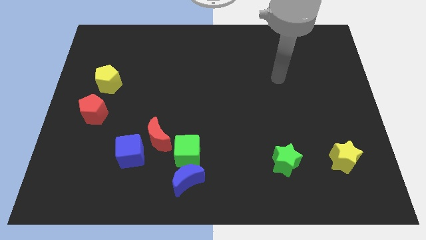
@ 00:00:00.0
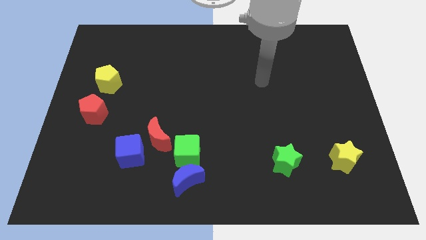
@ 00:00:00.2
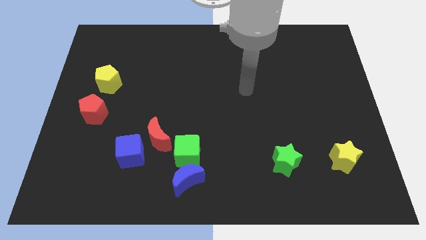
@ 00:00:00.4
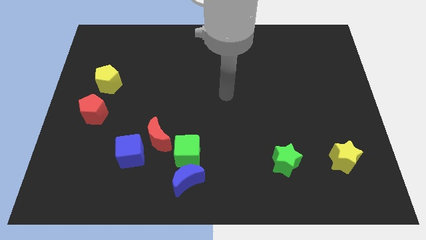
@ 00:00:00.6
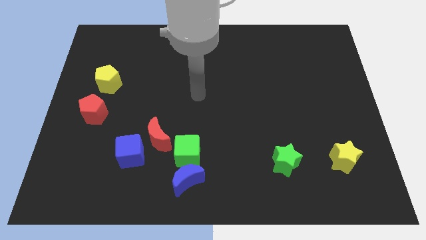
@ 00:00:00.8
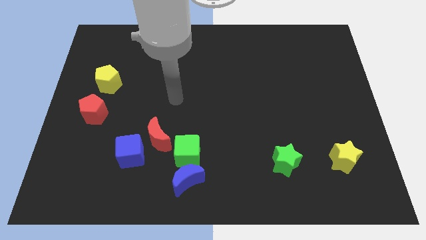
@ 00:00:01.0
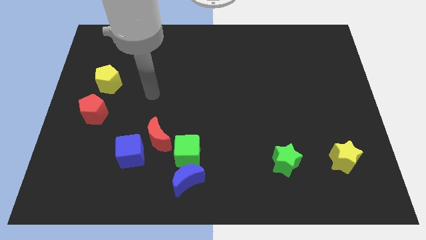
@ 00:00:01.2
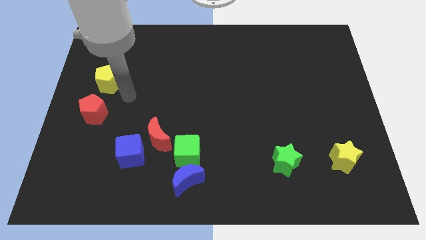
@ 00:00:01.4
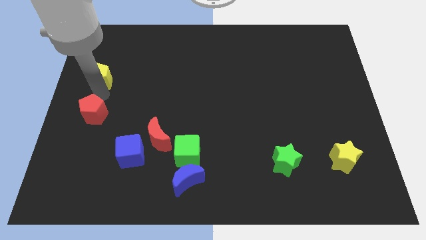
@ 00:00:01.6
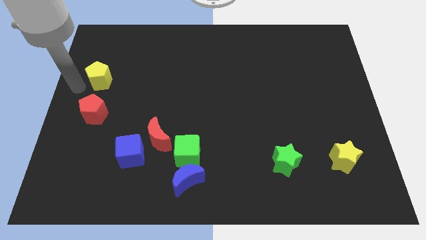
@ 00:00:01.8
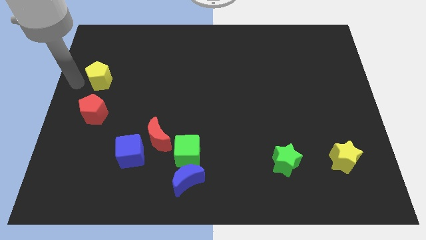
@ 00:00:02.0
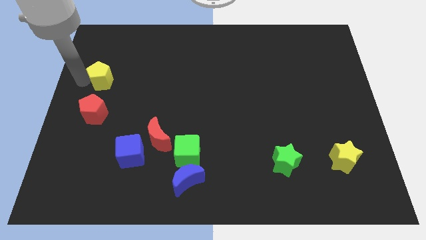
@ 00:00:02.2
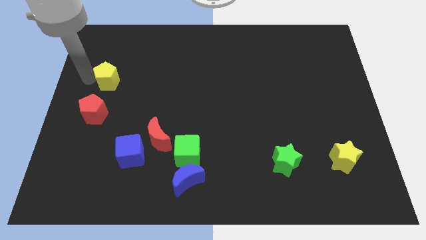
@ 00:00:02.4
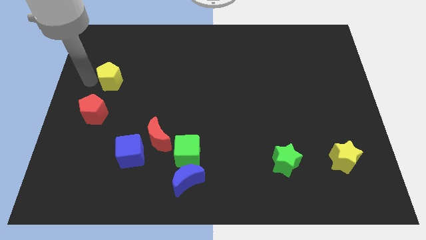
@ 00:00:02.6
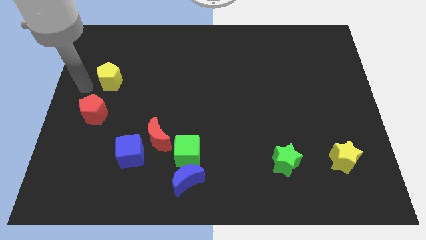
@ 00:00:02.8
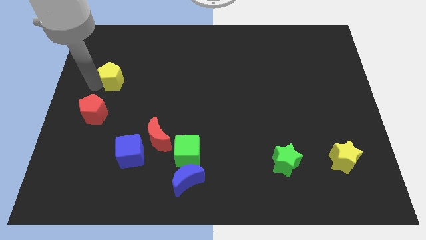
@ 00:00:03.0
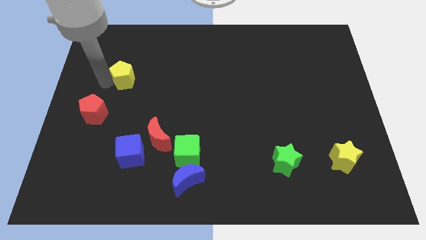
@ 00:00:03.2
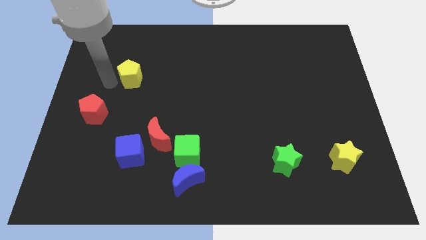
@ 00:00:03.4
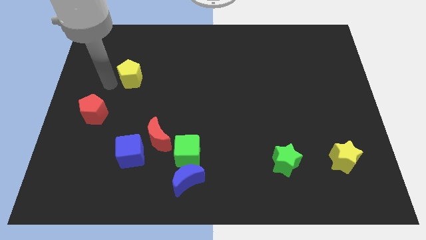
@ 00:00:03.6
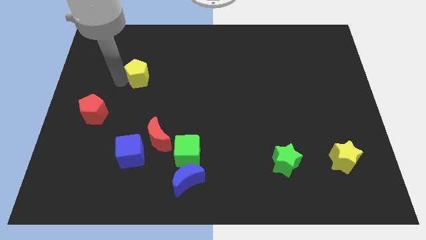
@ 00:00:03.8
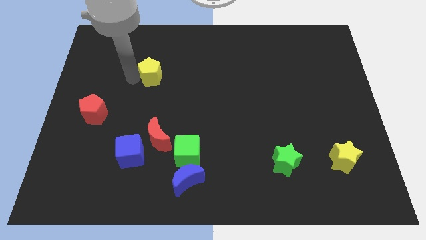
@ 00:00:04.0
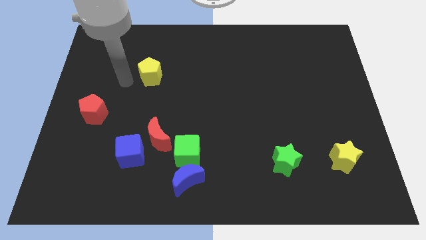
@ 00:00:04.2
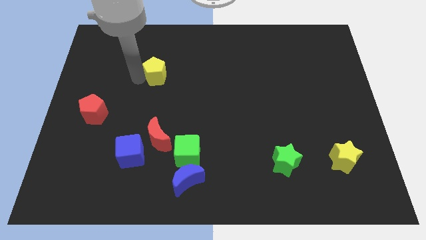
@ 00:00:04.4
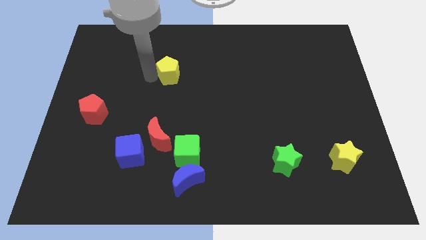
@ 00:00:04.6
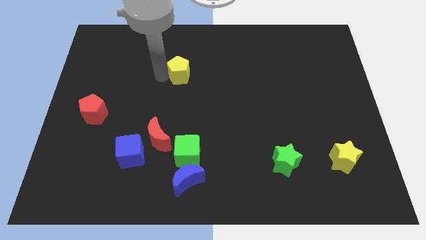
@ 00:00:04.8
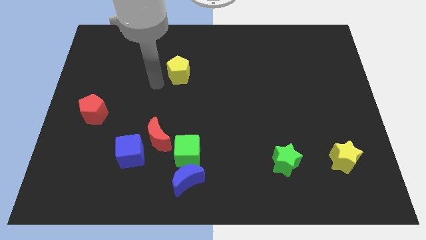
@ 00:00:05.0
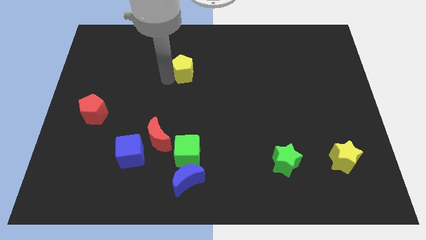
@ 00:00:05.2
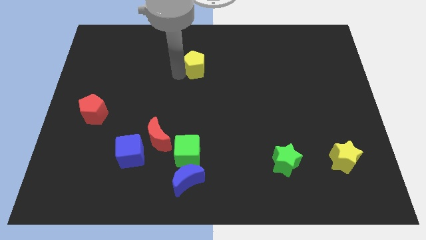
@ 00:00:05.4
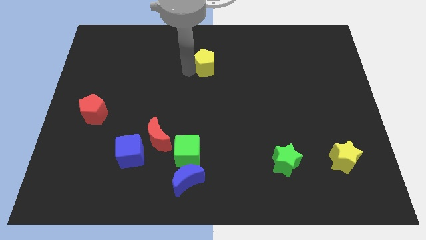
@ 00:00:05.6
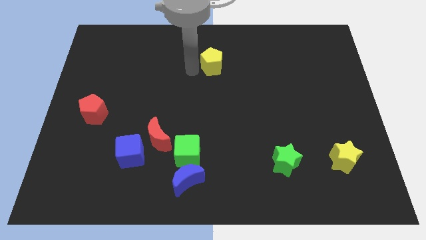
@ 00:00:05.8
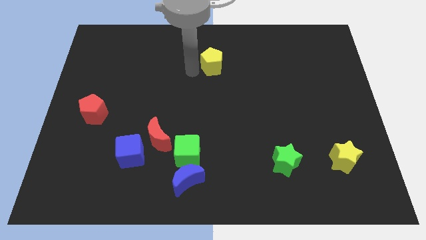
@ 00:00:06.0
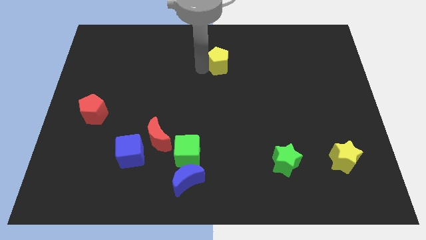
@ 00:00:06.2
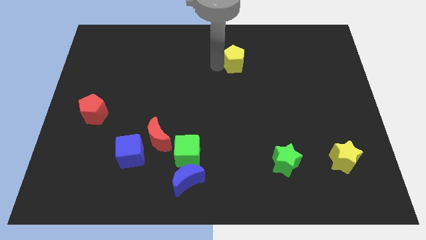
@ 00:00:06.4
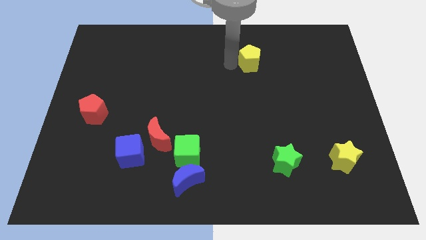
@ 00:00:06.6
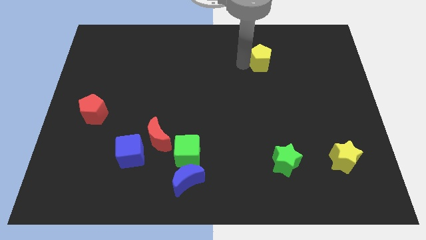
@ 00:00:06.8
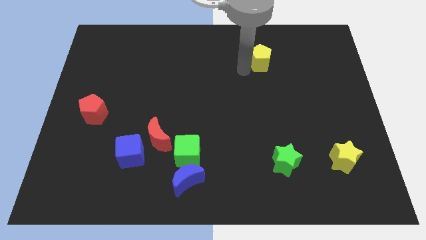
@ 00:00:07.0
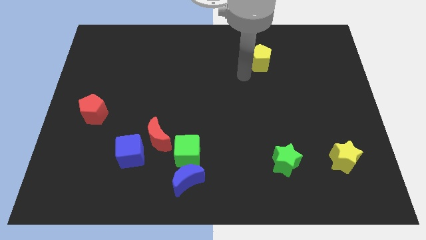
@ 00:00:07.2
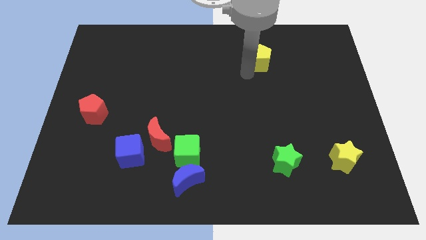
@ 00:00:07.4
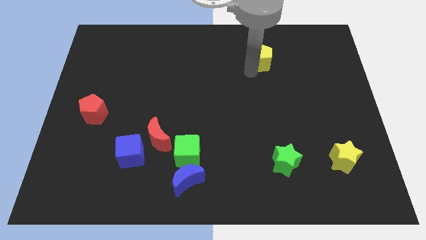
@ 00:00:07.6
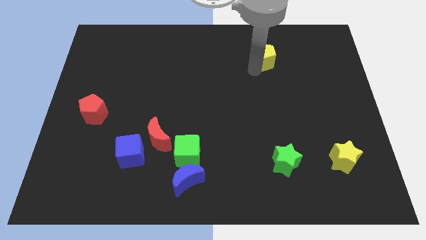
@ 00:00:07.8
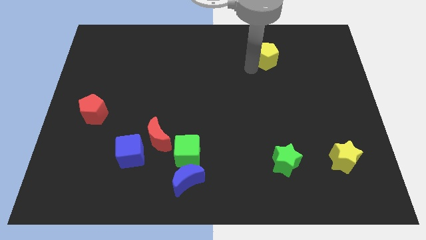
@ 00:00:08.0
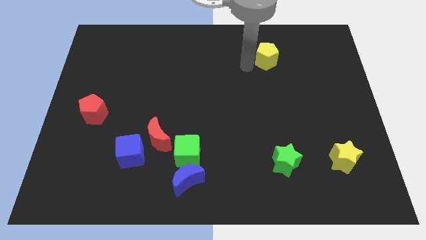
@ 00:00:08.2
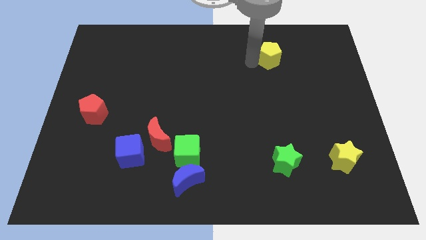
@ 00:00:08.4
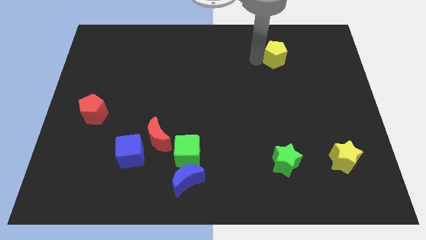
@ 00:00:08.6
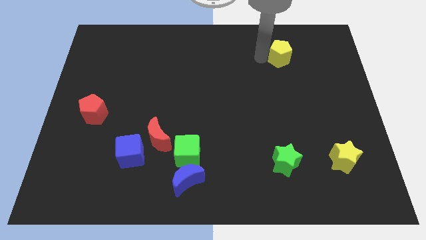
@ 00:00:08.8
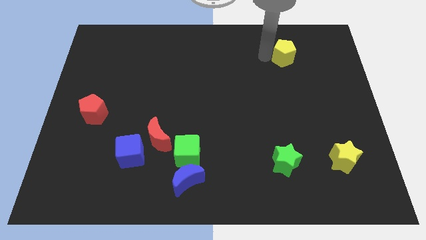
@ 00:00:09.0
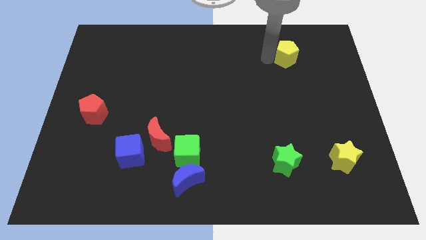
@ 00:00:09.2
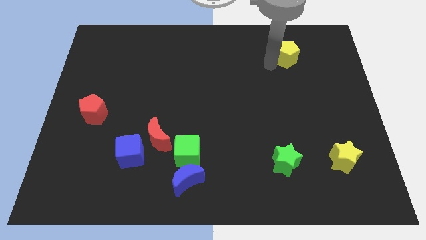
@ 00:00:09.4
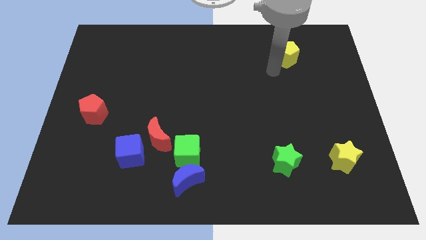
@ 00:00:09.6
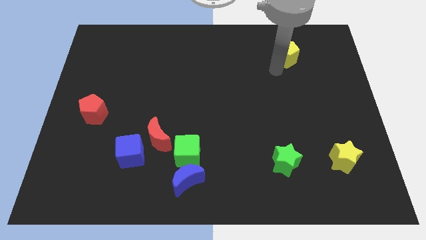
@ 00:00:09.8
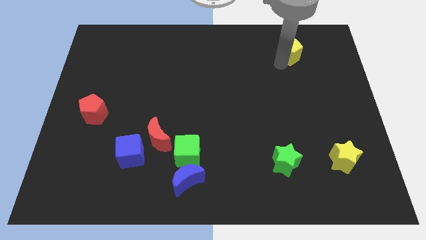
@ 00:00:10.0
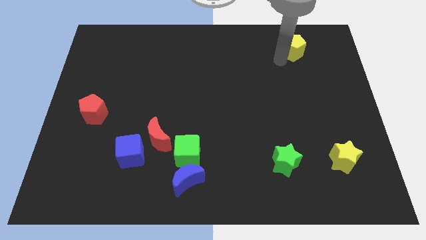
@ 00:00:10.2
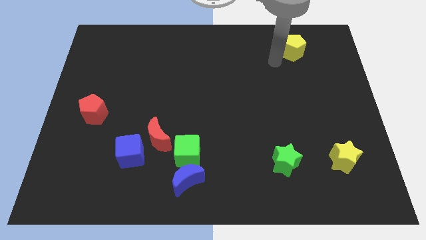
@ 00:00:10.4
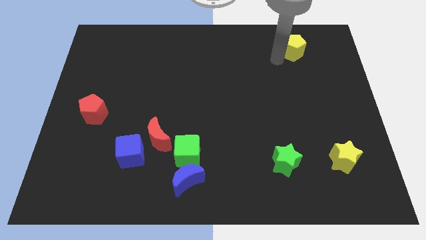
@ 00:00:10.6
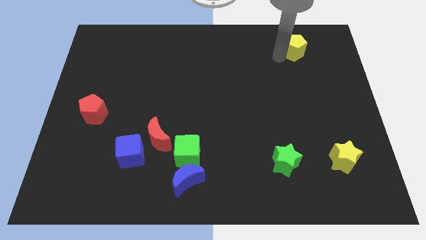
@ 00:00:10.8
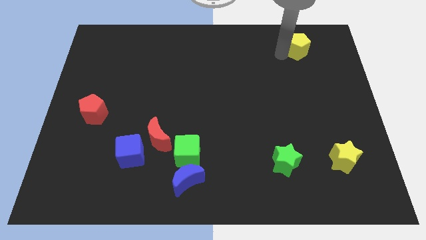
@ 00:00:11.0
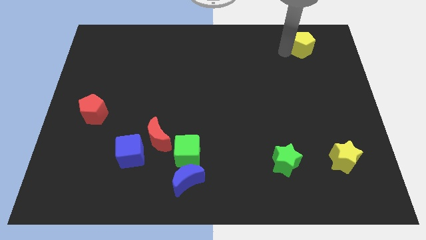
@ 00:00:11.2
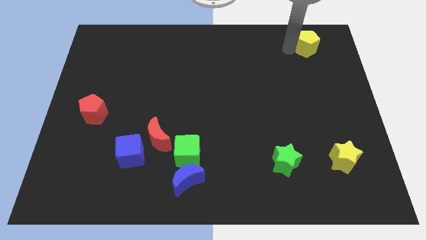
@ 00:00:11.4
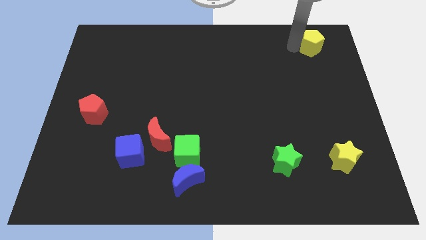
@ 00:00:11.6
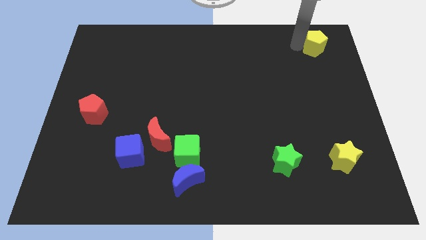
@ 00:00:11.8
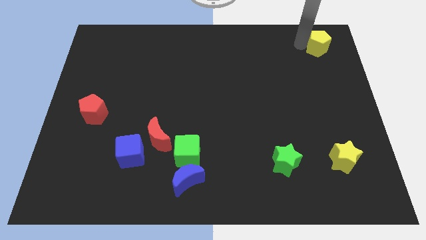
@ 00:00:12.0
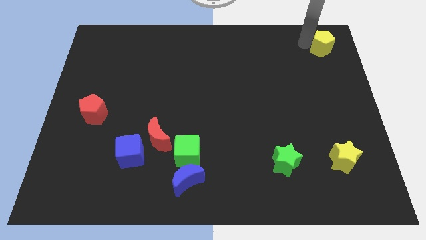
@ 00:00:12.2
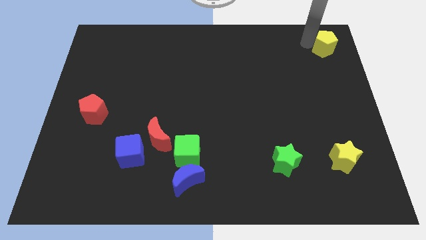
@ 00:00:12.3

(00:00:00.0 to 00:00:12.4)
slide the yellow pentagon to the top right

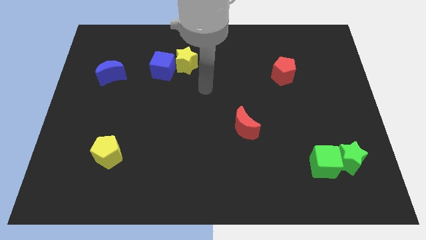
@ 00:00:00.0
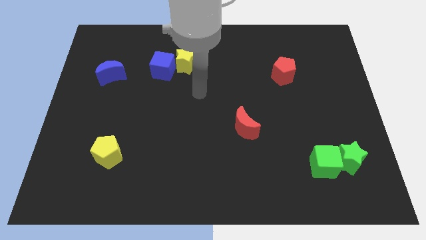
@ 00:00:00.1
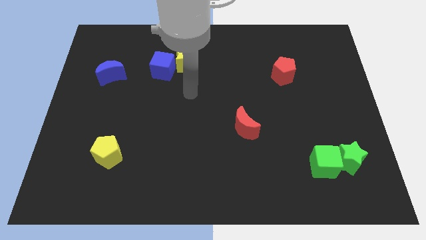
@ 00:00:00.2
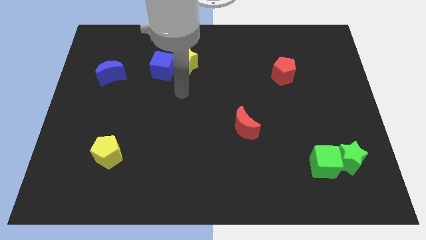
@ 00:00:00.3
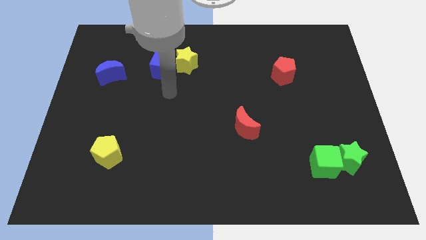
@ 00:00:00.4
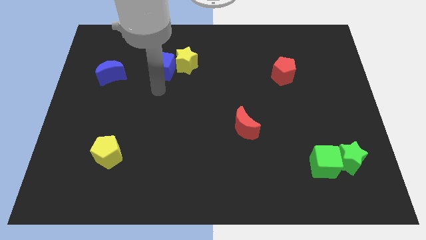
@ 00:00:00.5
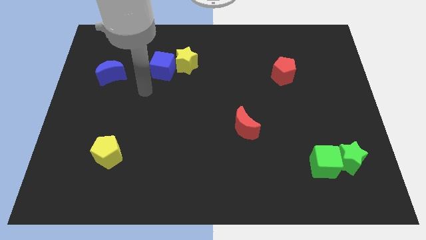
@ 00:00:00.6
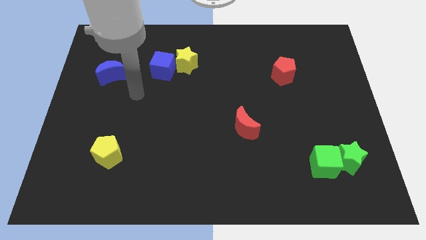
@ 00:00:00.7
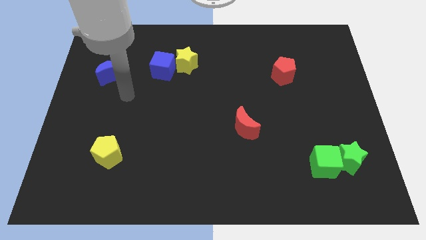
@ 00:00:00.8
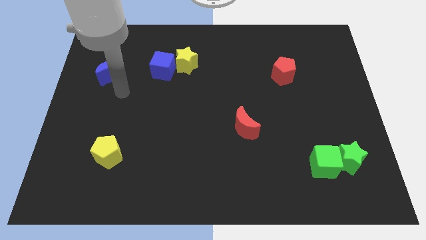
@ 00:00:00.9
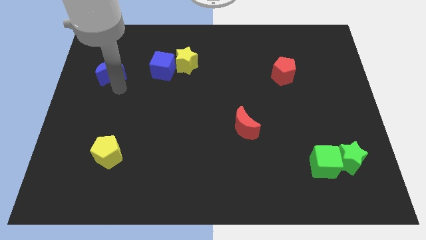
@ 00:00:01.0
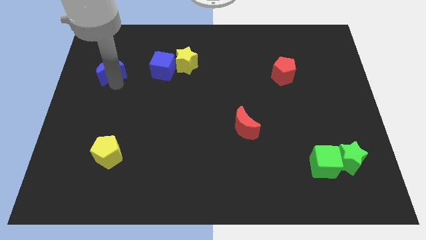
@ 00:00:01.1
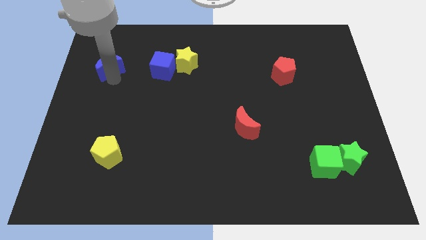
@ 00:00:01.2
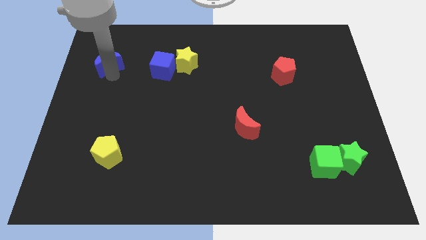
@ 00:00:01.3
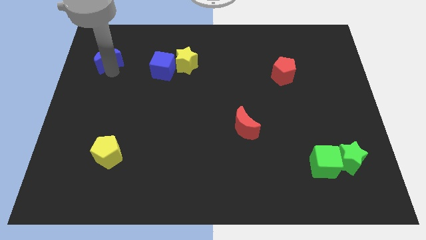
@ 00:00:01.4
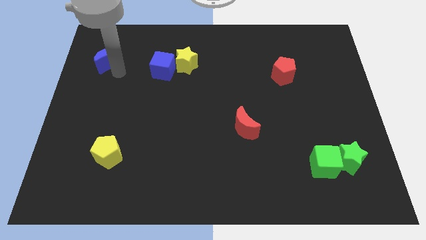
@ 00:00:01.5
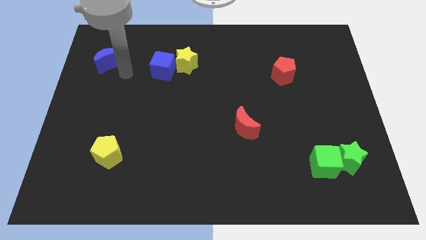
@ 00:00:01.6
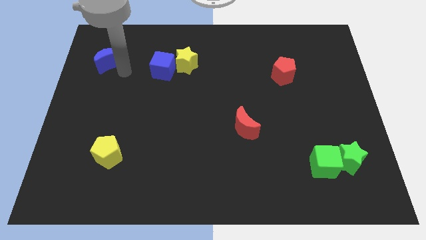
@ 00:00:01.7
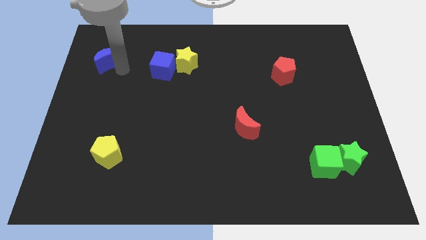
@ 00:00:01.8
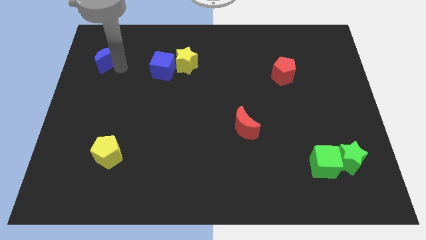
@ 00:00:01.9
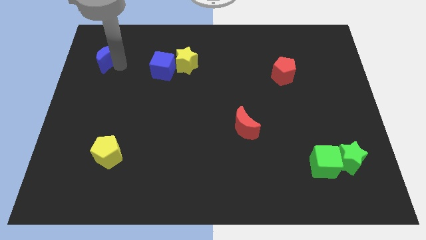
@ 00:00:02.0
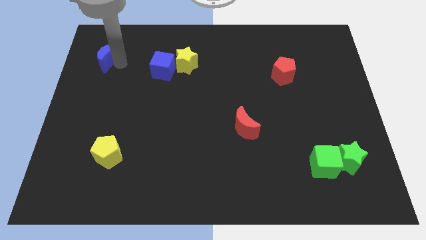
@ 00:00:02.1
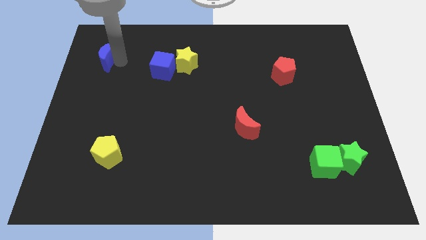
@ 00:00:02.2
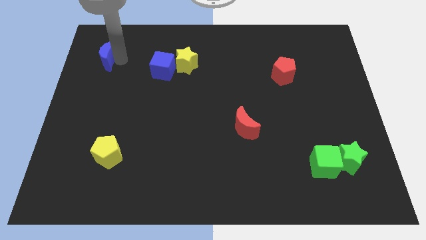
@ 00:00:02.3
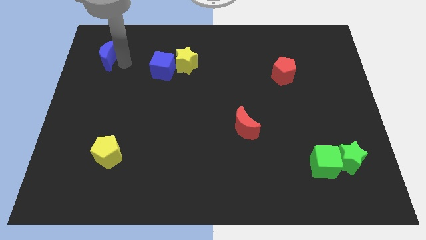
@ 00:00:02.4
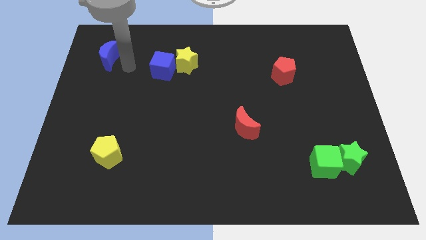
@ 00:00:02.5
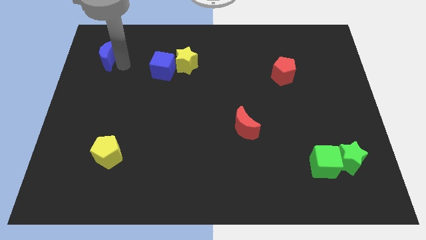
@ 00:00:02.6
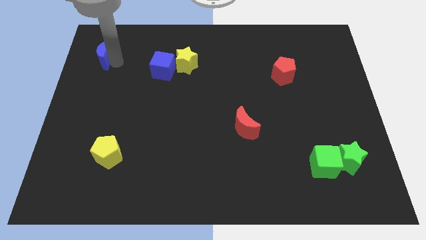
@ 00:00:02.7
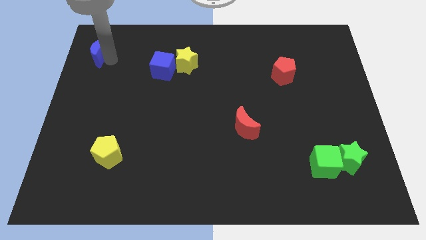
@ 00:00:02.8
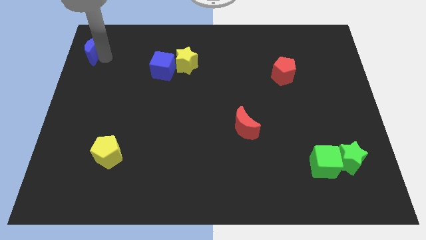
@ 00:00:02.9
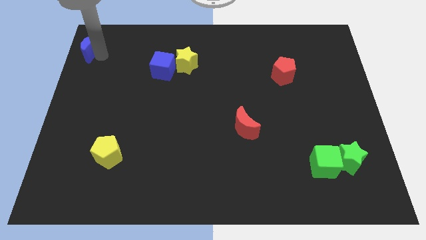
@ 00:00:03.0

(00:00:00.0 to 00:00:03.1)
put the blue moon to the top left
